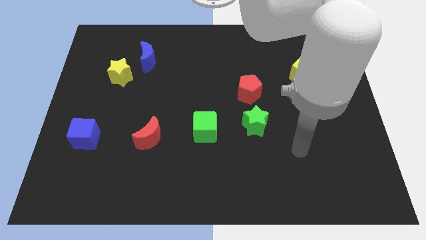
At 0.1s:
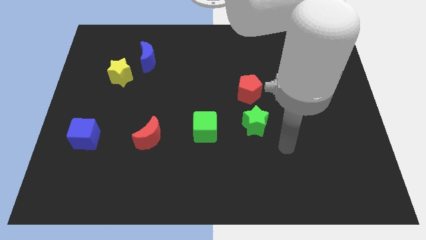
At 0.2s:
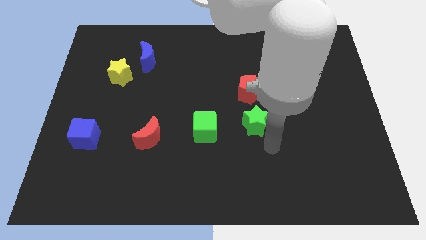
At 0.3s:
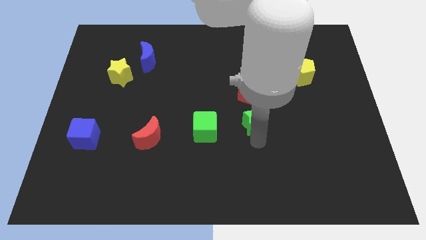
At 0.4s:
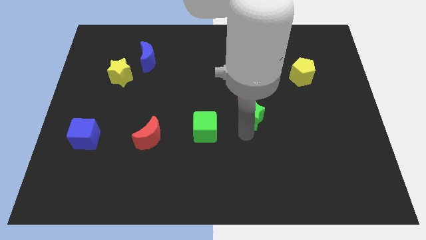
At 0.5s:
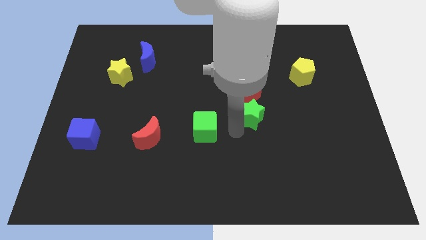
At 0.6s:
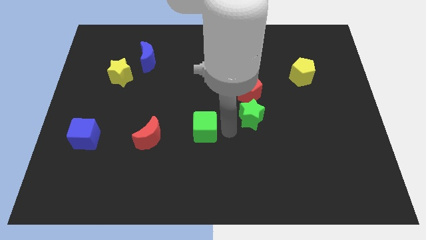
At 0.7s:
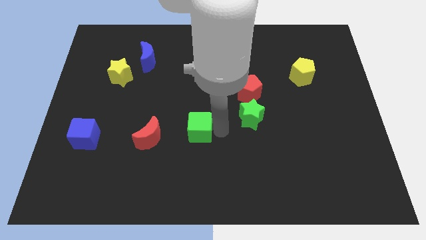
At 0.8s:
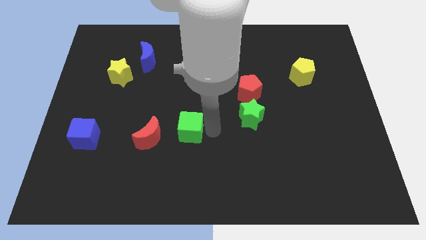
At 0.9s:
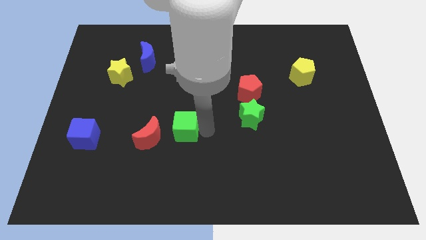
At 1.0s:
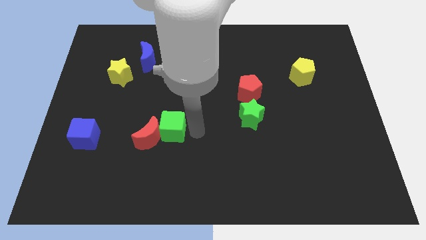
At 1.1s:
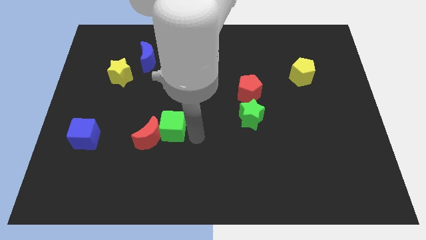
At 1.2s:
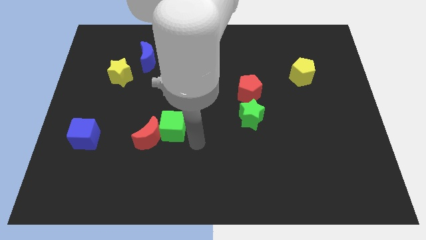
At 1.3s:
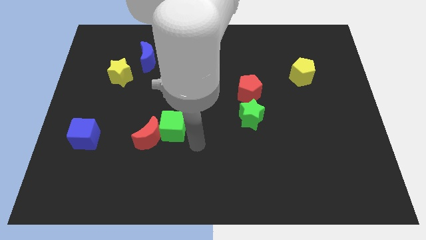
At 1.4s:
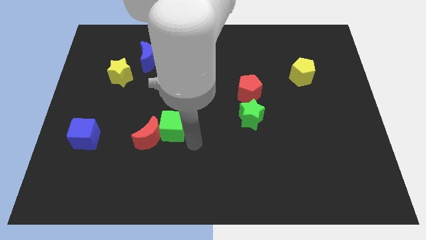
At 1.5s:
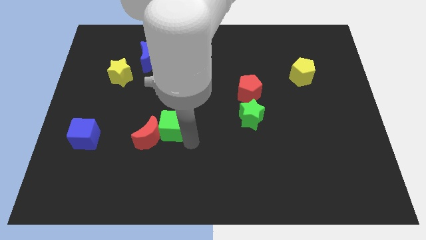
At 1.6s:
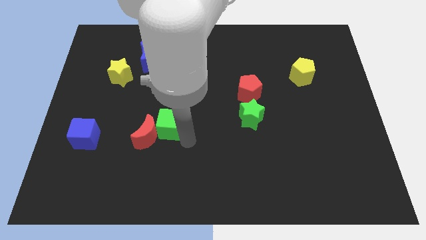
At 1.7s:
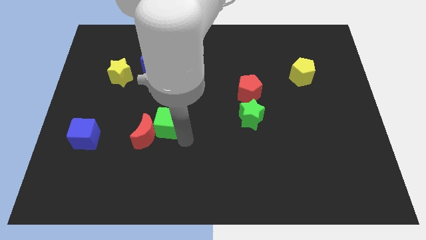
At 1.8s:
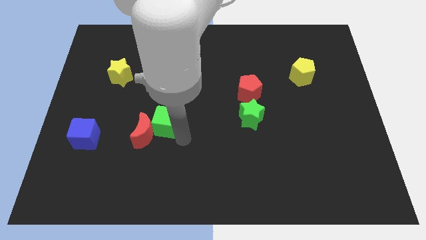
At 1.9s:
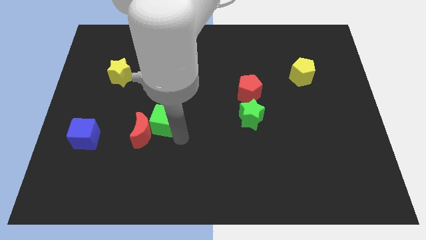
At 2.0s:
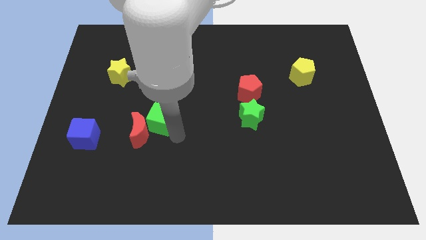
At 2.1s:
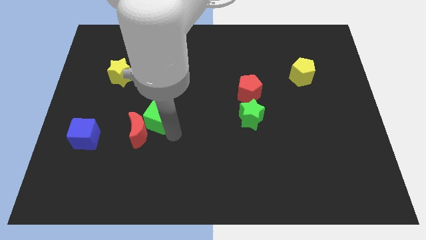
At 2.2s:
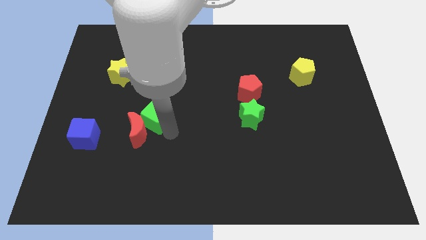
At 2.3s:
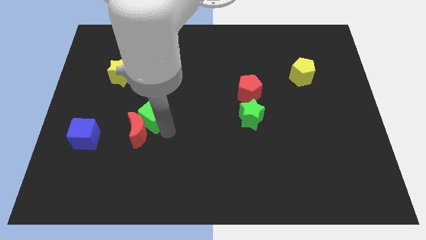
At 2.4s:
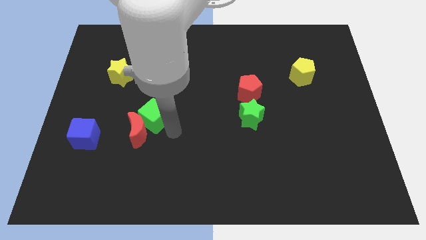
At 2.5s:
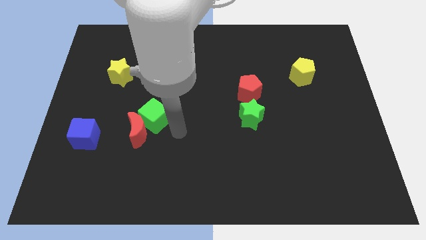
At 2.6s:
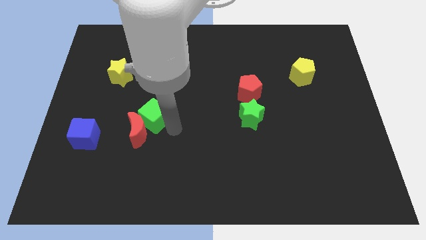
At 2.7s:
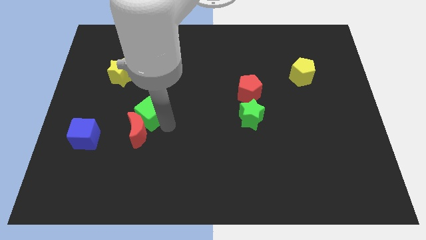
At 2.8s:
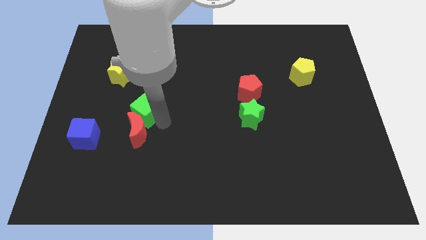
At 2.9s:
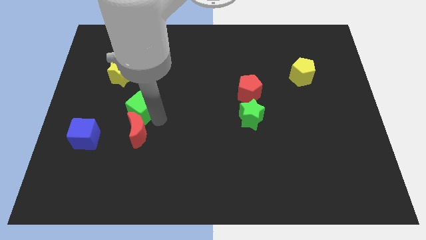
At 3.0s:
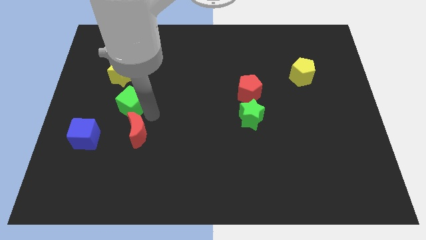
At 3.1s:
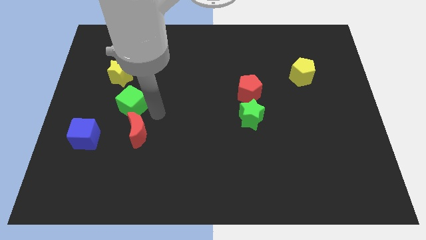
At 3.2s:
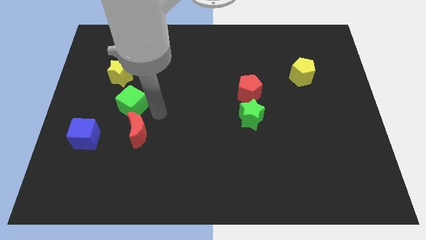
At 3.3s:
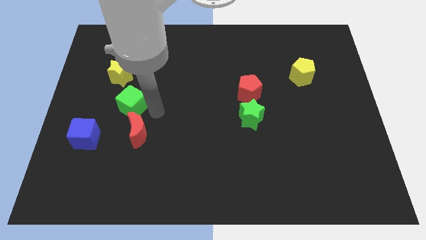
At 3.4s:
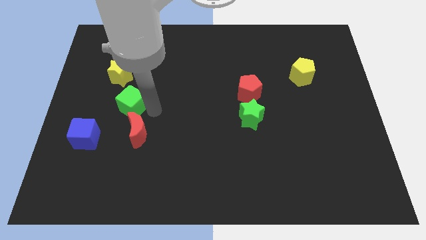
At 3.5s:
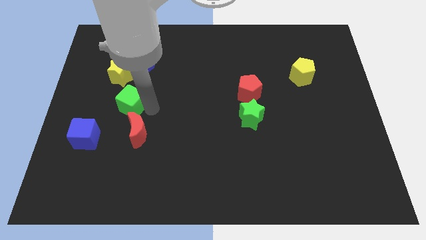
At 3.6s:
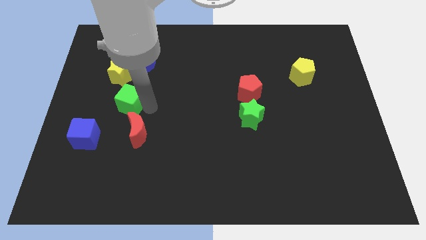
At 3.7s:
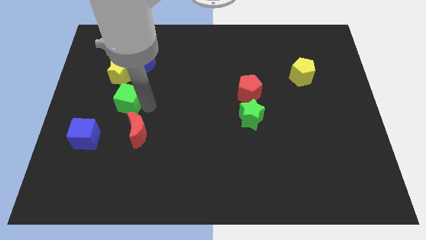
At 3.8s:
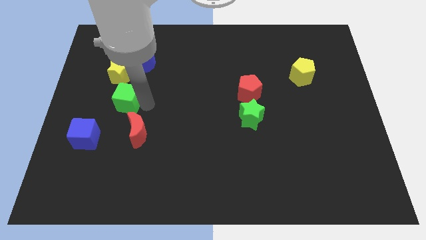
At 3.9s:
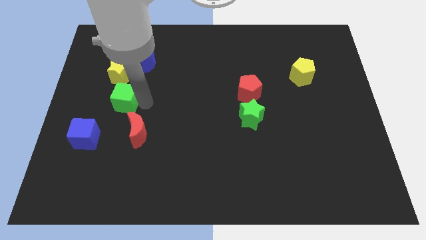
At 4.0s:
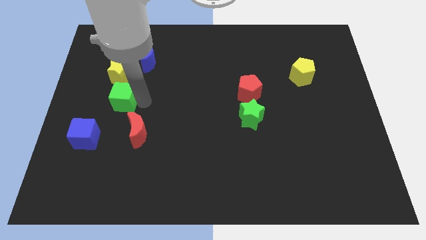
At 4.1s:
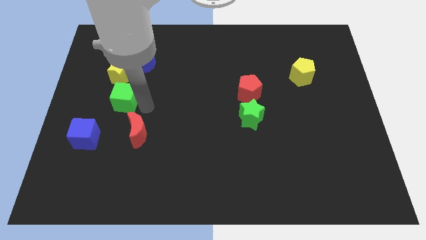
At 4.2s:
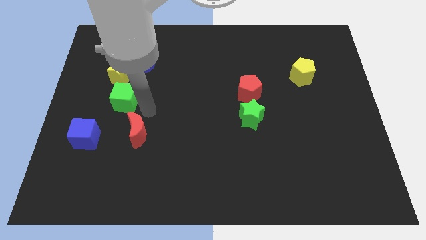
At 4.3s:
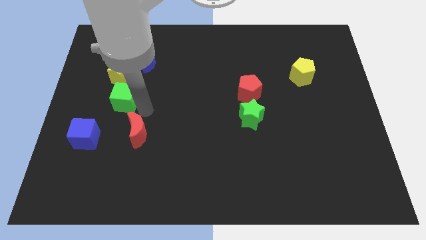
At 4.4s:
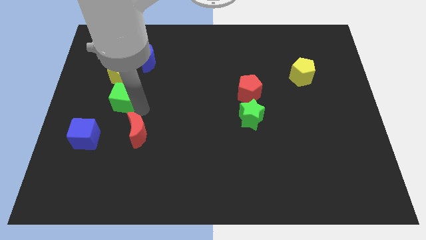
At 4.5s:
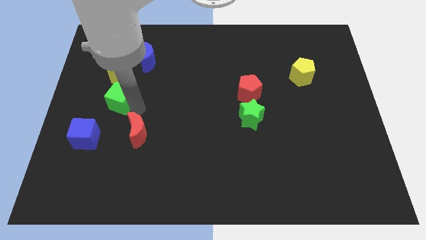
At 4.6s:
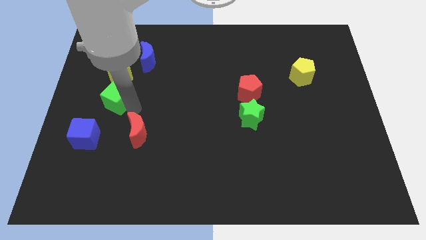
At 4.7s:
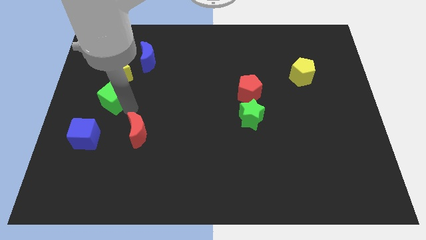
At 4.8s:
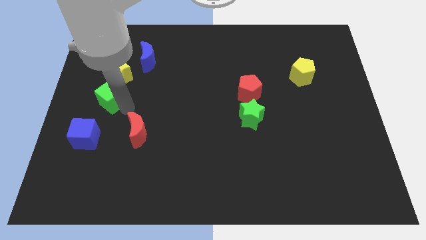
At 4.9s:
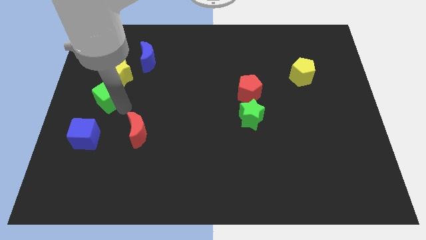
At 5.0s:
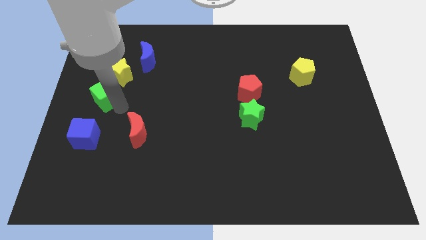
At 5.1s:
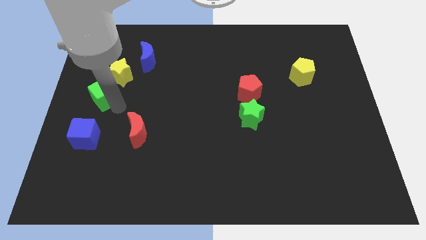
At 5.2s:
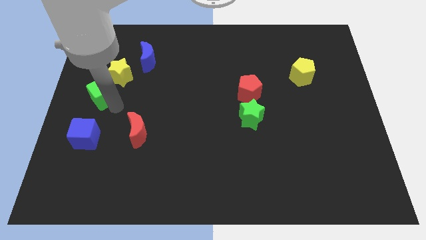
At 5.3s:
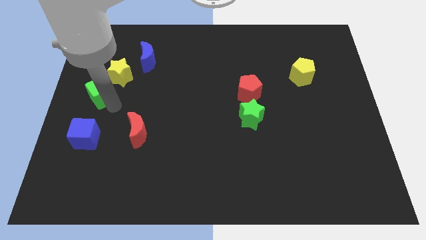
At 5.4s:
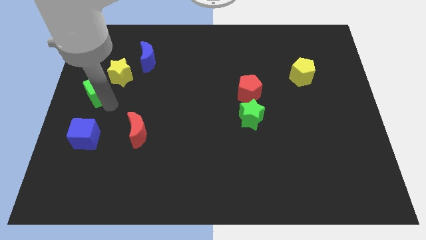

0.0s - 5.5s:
push the green cube upwards and to the left diagonally

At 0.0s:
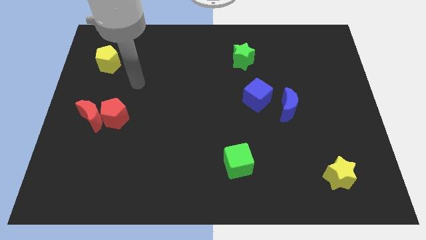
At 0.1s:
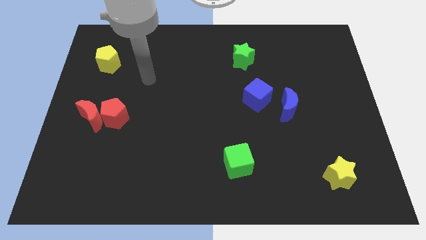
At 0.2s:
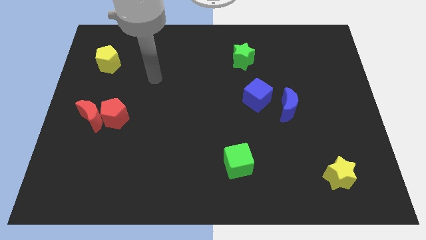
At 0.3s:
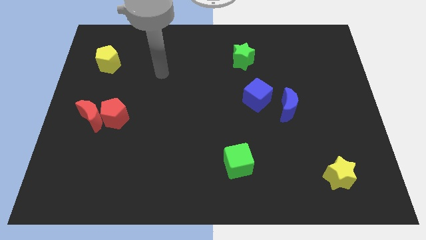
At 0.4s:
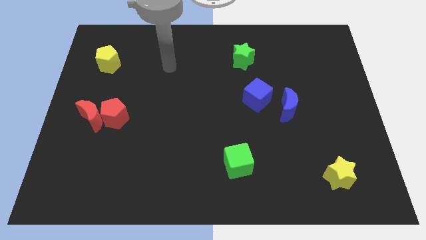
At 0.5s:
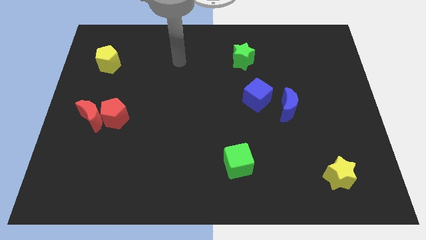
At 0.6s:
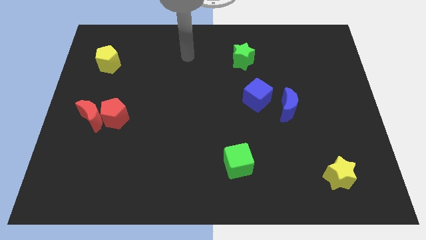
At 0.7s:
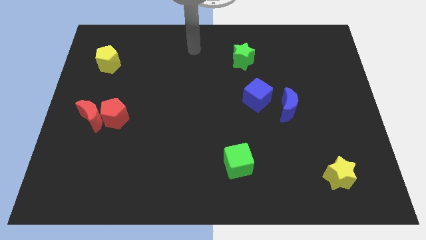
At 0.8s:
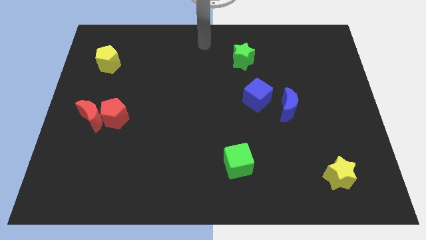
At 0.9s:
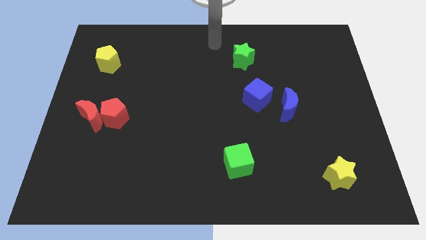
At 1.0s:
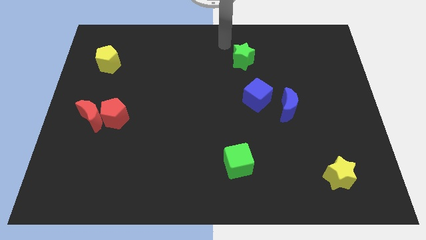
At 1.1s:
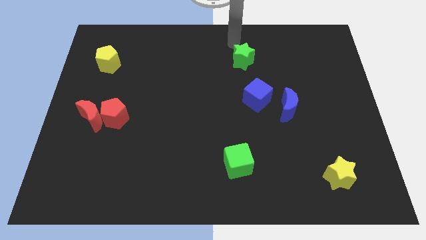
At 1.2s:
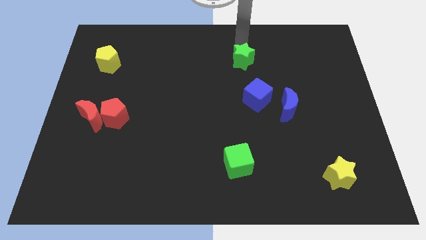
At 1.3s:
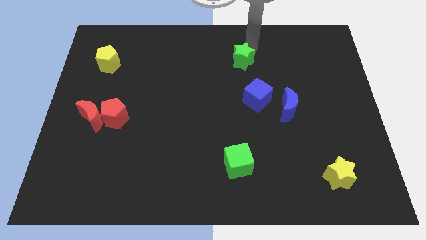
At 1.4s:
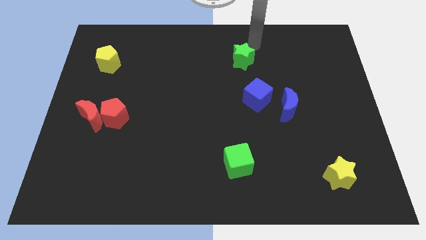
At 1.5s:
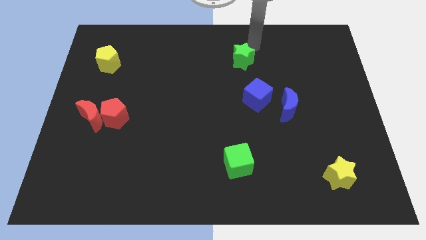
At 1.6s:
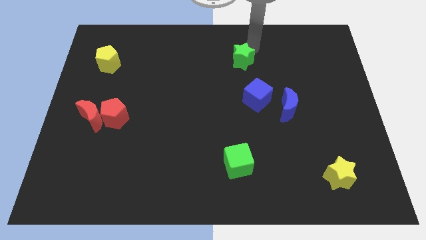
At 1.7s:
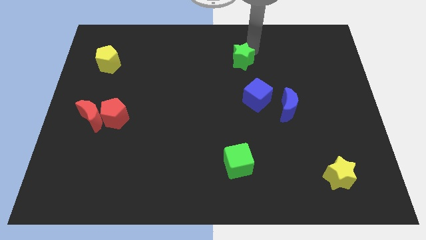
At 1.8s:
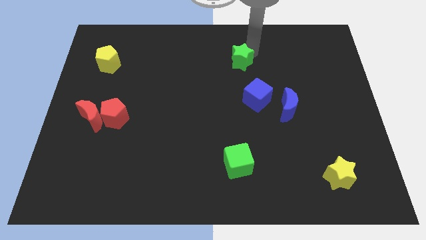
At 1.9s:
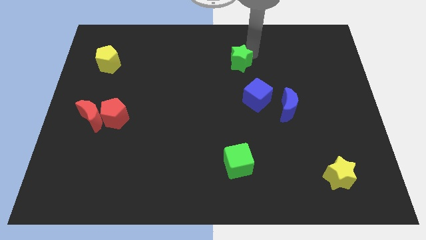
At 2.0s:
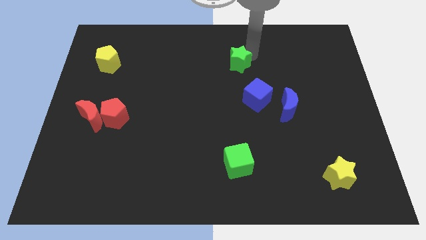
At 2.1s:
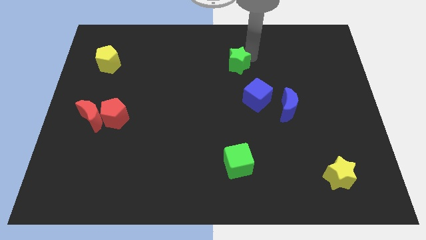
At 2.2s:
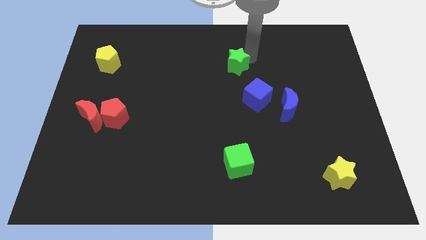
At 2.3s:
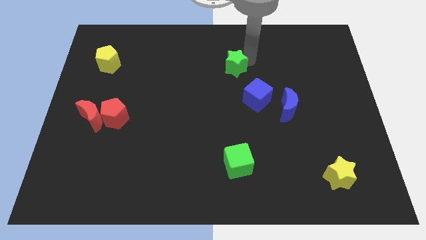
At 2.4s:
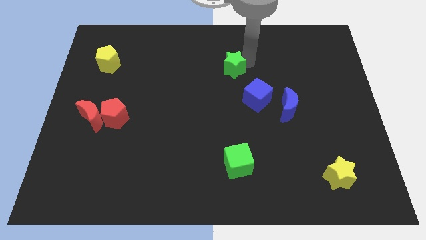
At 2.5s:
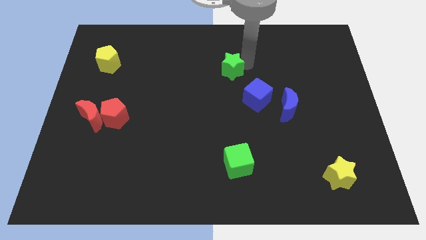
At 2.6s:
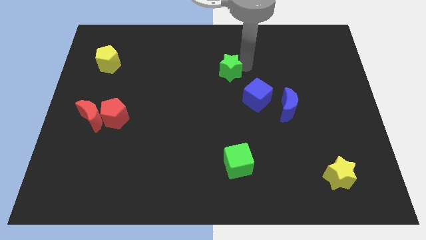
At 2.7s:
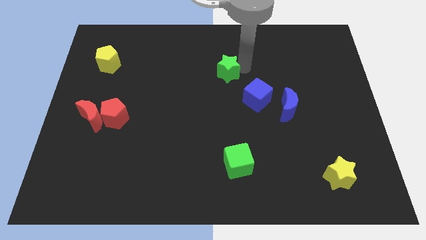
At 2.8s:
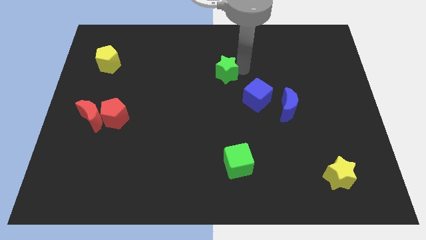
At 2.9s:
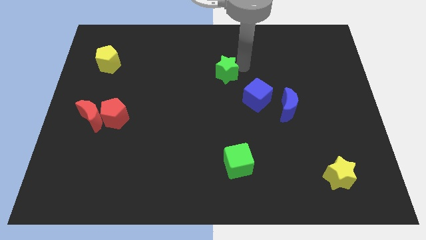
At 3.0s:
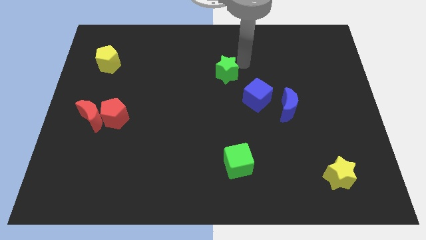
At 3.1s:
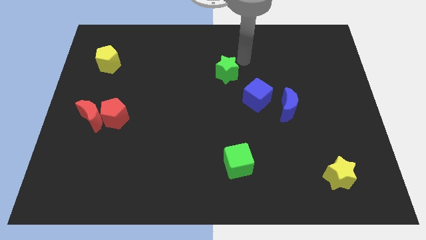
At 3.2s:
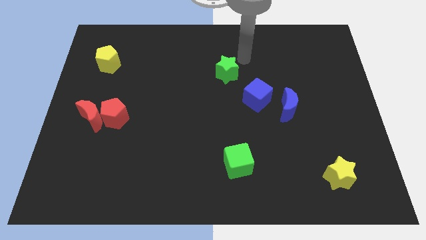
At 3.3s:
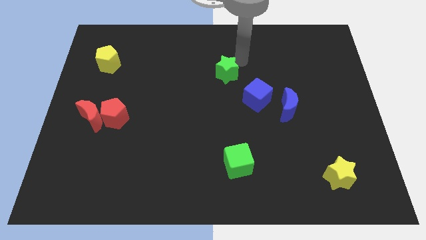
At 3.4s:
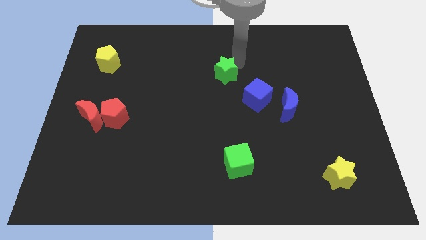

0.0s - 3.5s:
slightly move the green star downwards and left diagonally
